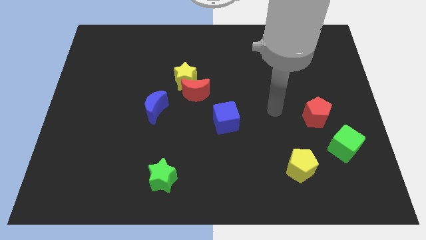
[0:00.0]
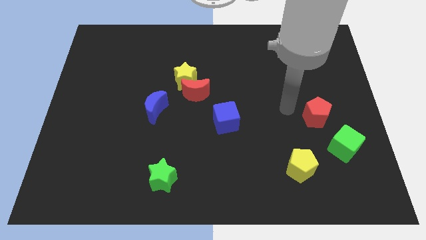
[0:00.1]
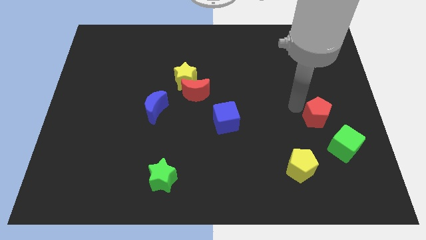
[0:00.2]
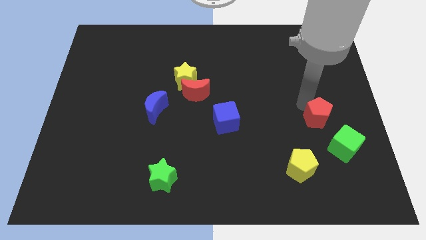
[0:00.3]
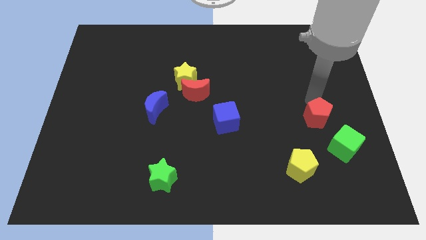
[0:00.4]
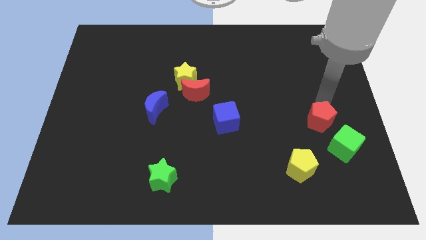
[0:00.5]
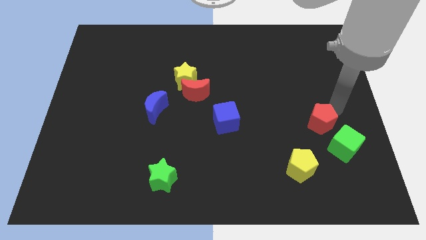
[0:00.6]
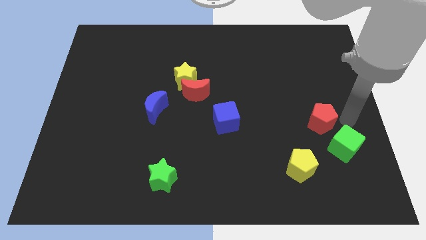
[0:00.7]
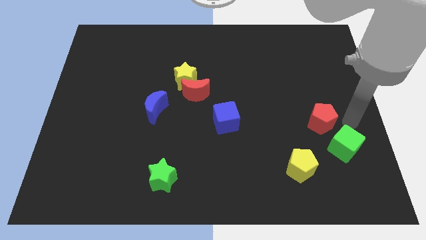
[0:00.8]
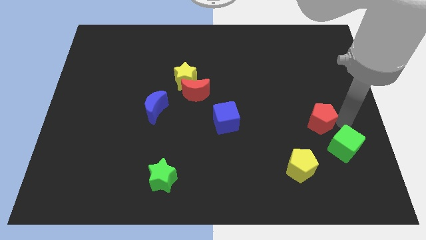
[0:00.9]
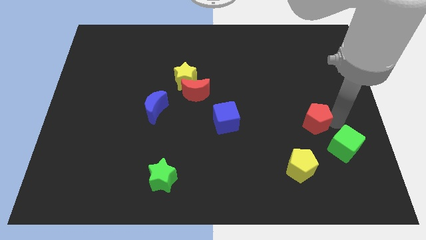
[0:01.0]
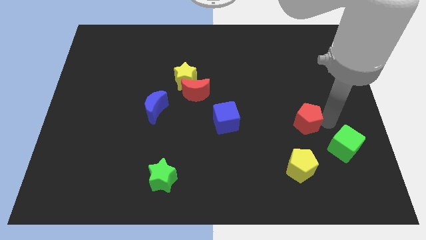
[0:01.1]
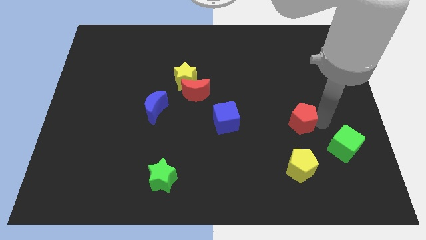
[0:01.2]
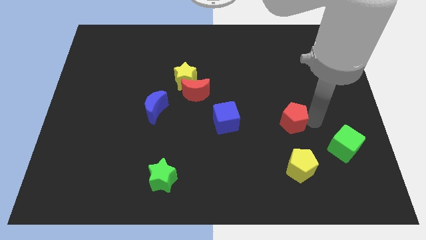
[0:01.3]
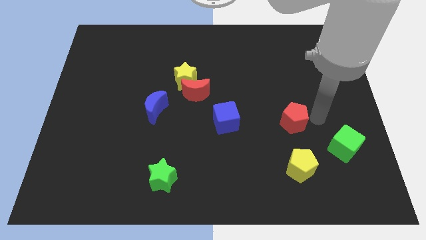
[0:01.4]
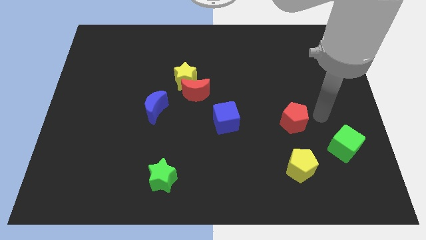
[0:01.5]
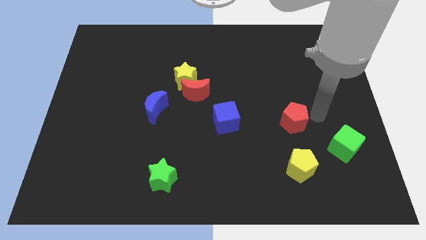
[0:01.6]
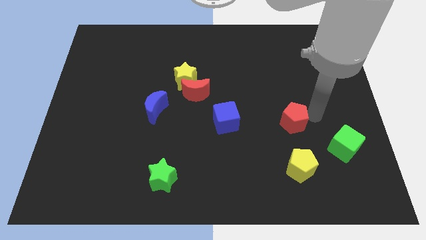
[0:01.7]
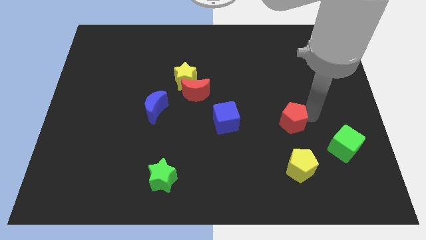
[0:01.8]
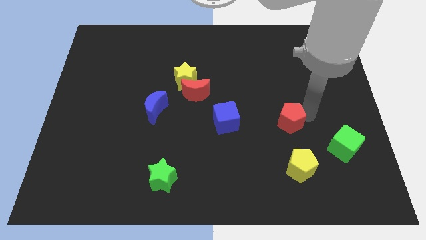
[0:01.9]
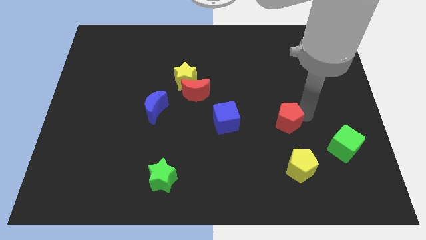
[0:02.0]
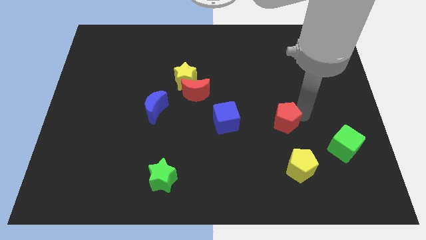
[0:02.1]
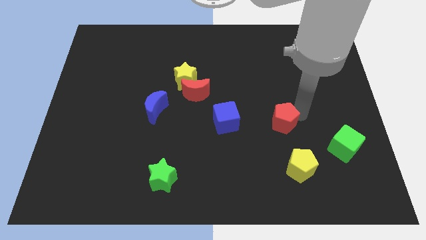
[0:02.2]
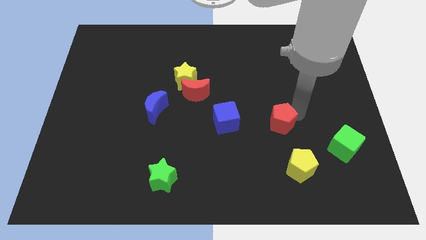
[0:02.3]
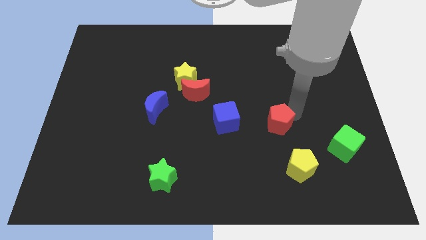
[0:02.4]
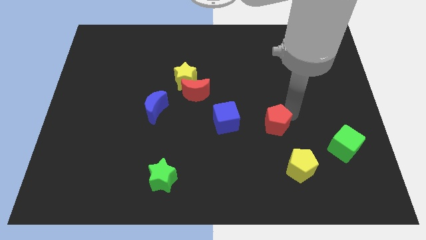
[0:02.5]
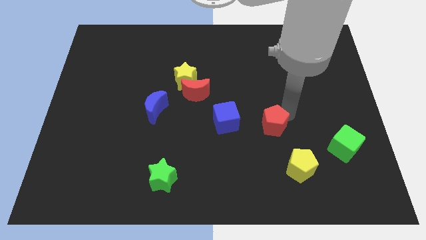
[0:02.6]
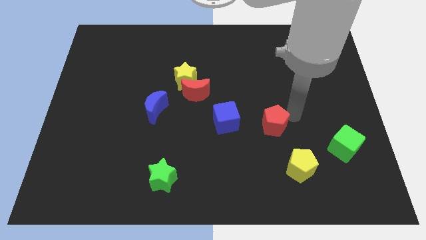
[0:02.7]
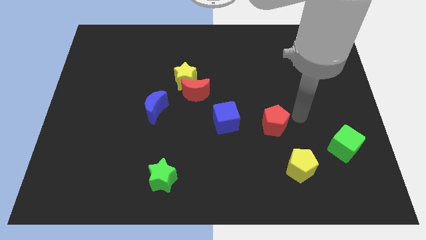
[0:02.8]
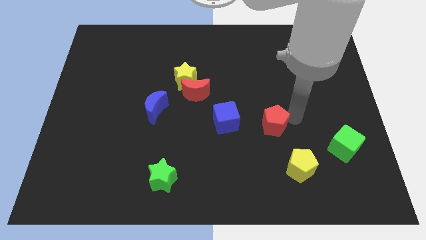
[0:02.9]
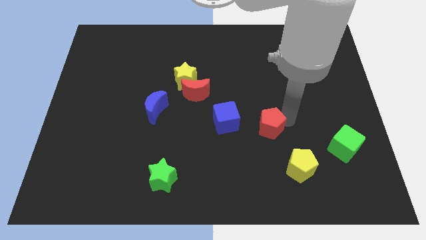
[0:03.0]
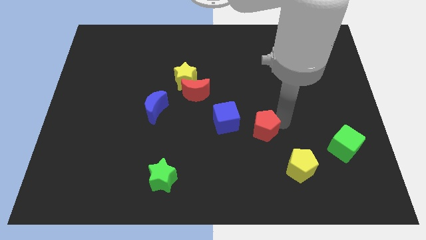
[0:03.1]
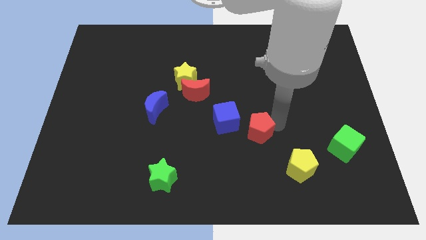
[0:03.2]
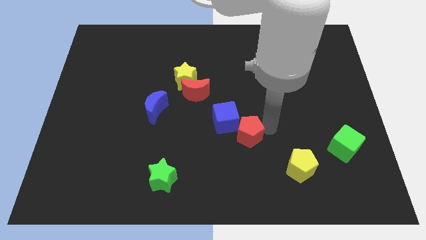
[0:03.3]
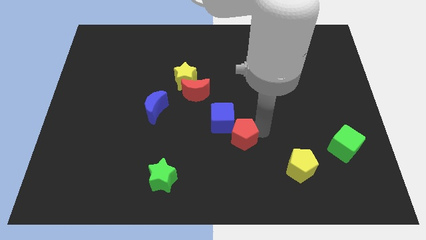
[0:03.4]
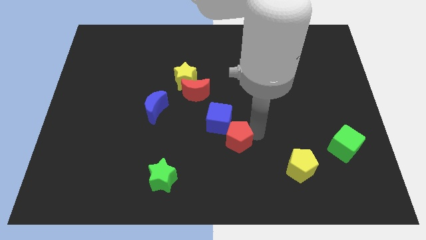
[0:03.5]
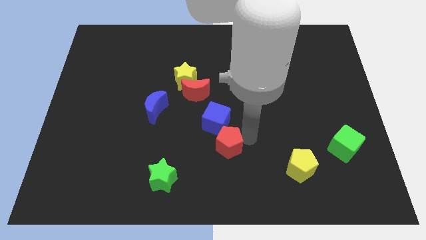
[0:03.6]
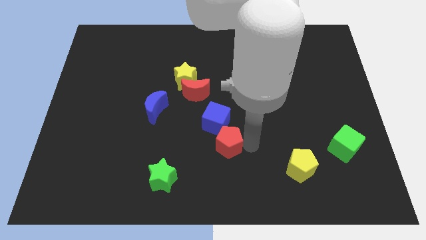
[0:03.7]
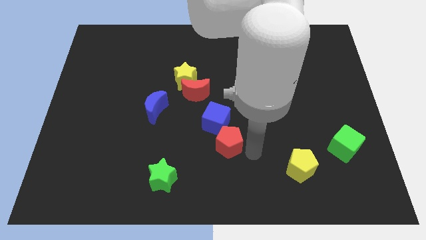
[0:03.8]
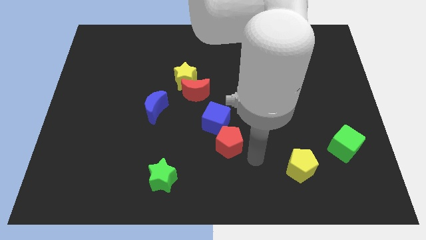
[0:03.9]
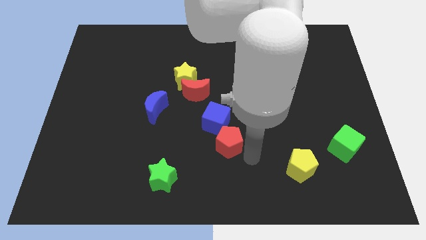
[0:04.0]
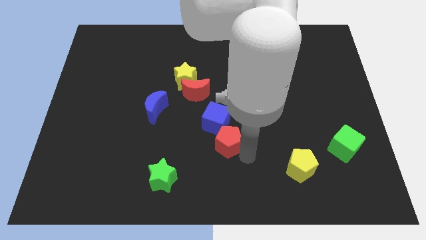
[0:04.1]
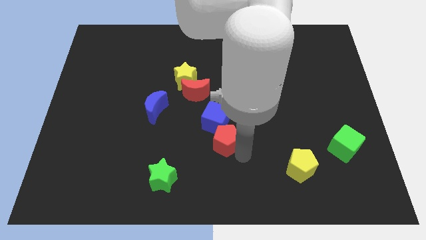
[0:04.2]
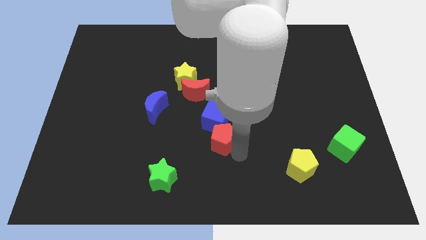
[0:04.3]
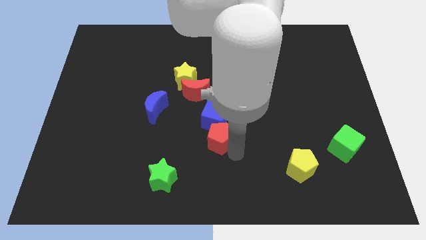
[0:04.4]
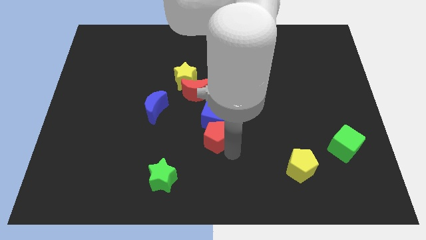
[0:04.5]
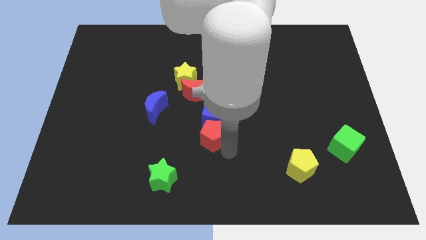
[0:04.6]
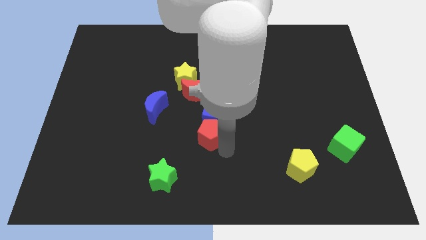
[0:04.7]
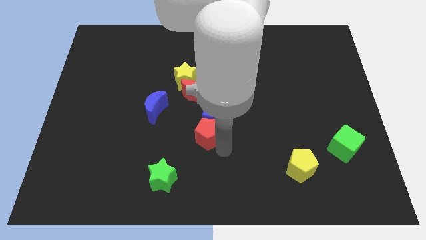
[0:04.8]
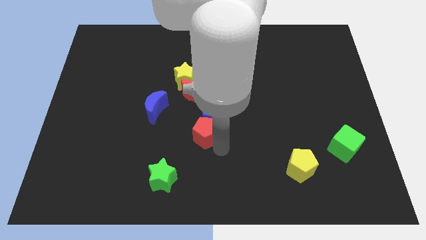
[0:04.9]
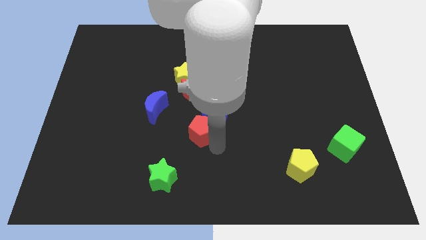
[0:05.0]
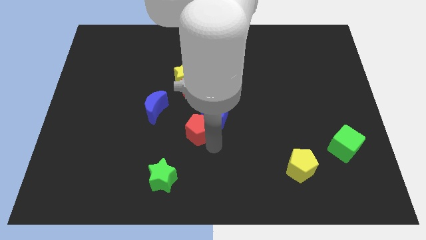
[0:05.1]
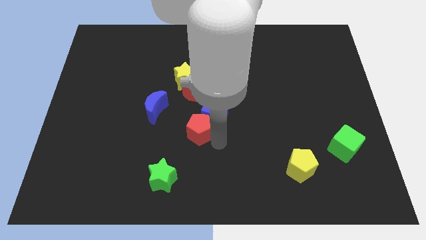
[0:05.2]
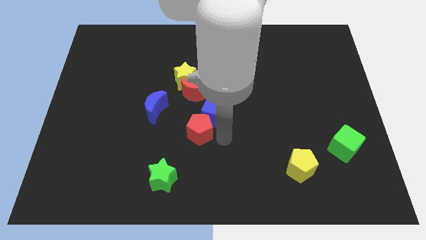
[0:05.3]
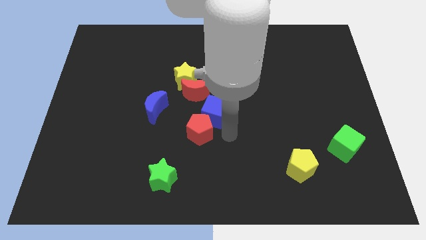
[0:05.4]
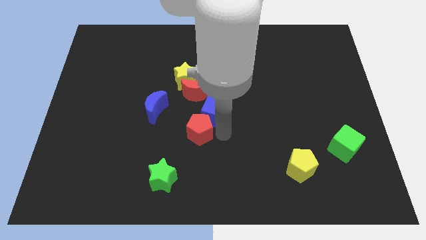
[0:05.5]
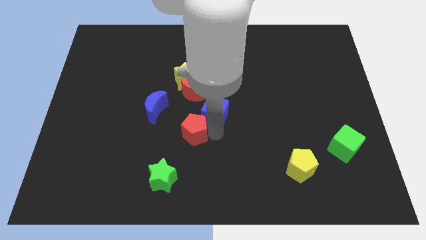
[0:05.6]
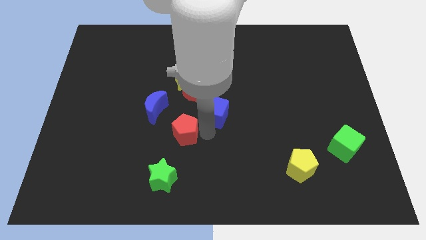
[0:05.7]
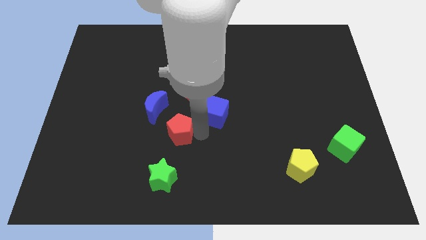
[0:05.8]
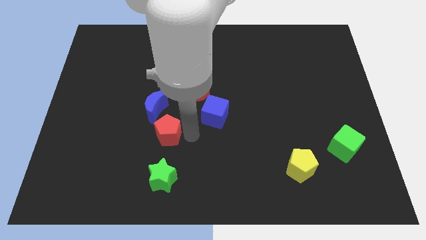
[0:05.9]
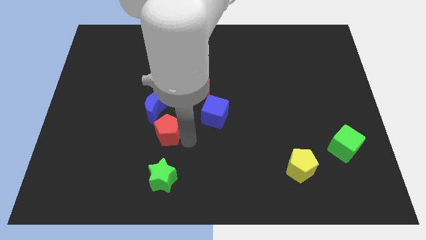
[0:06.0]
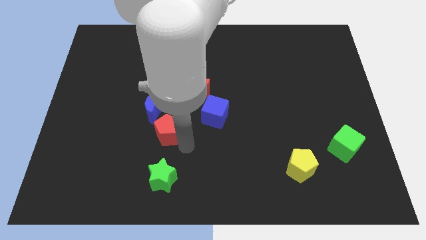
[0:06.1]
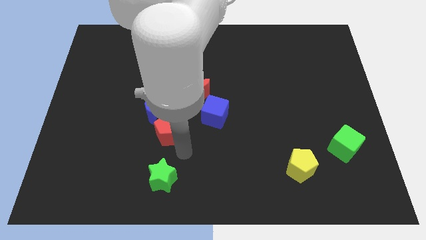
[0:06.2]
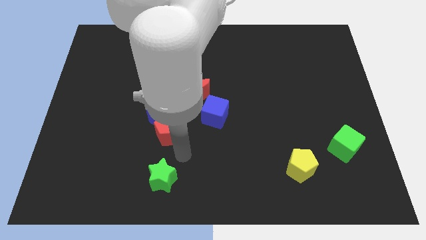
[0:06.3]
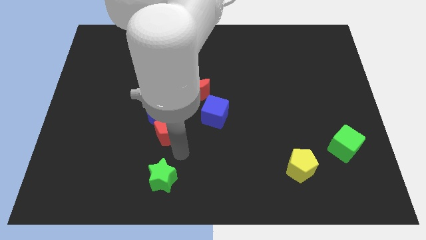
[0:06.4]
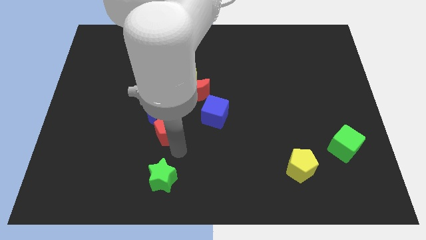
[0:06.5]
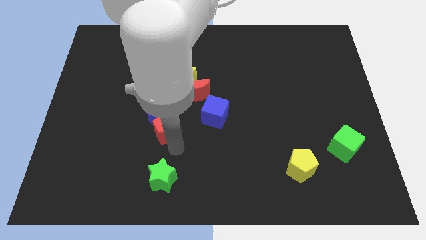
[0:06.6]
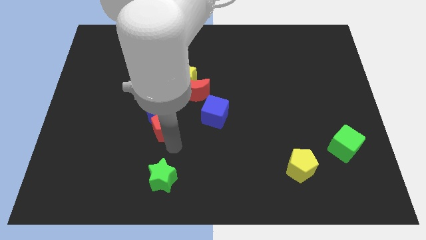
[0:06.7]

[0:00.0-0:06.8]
push the red pentagon close to the blue moon
